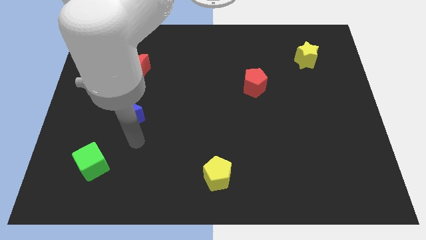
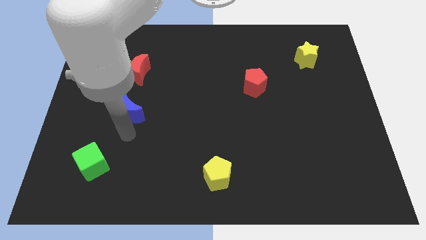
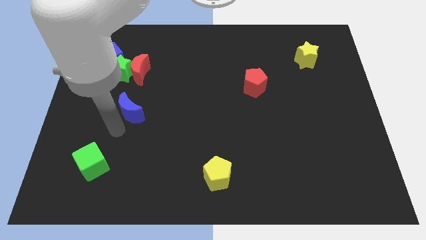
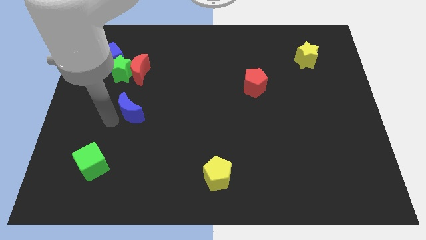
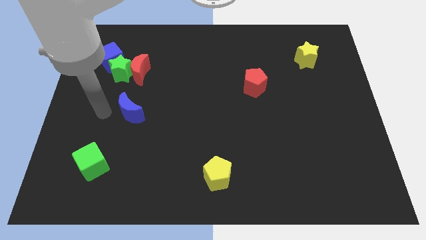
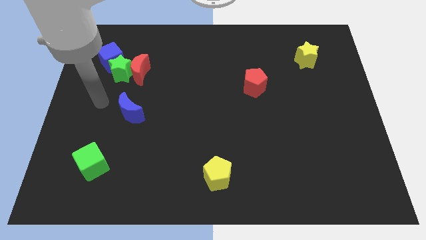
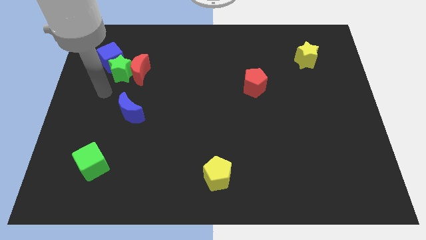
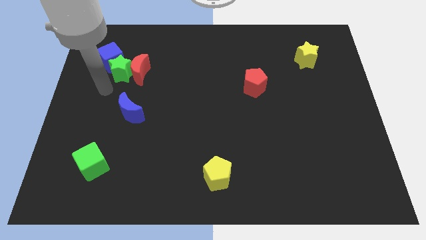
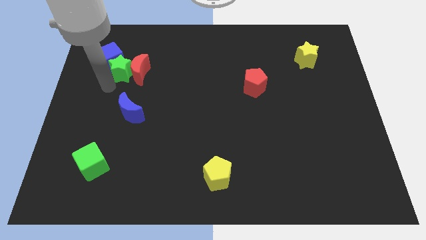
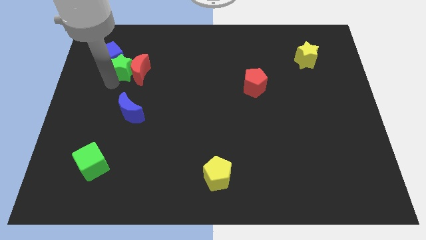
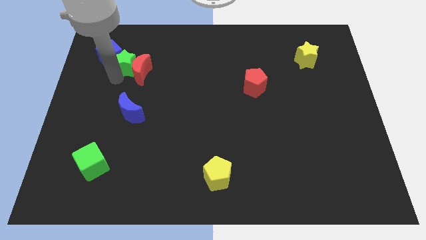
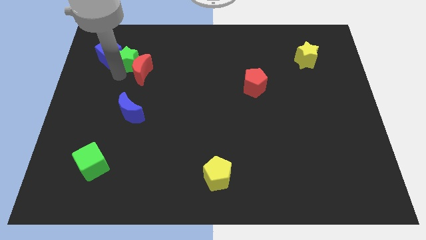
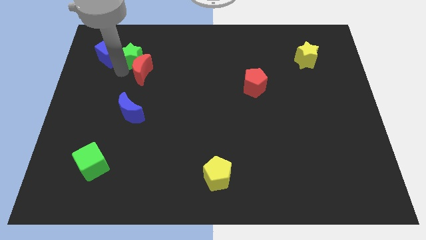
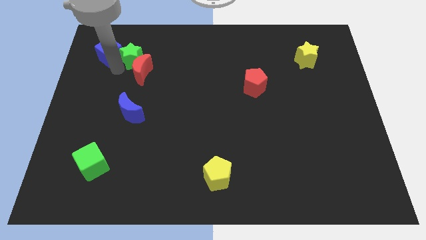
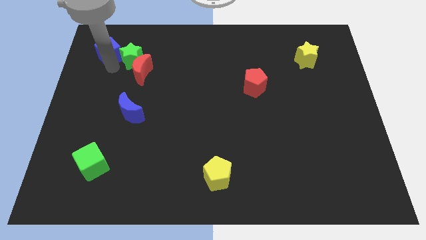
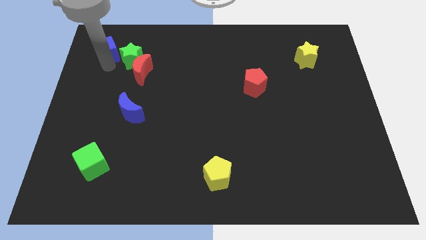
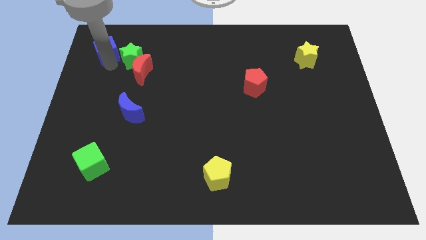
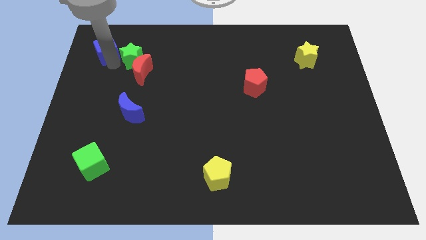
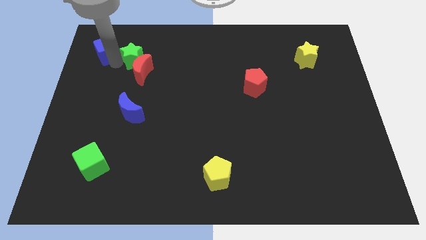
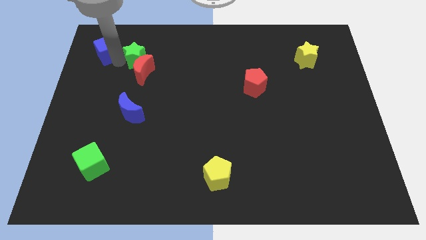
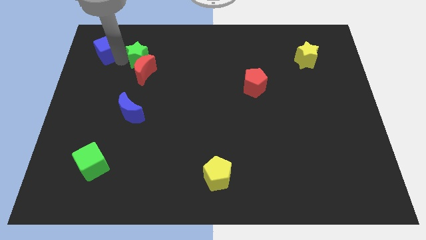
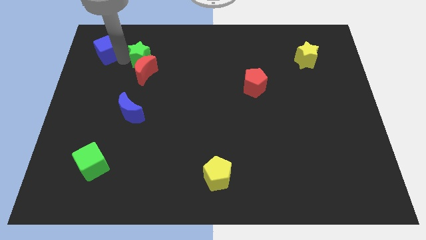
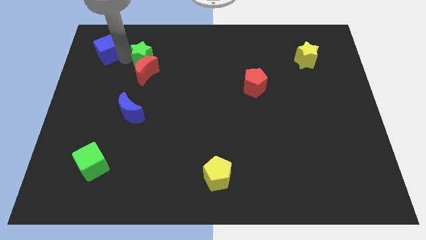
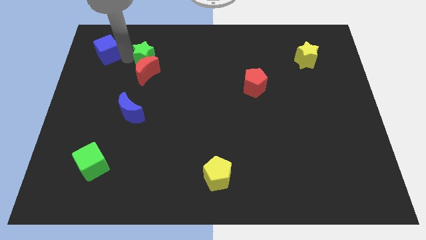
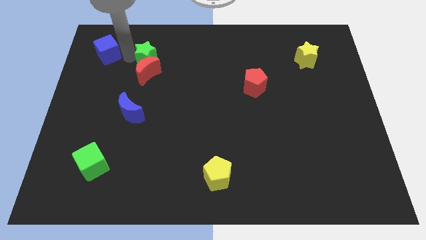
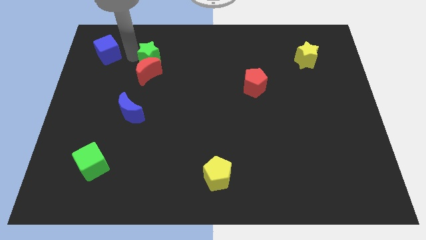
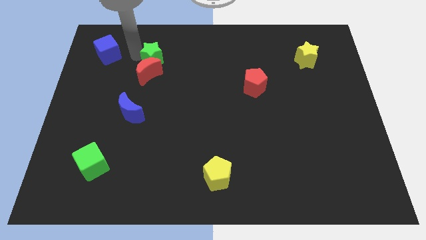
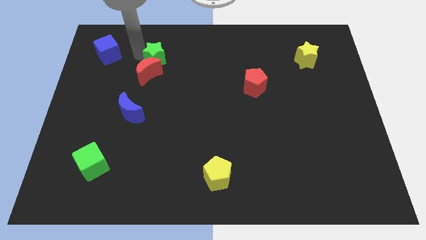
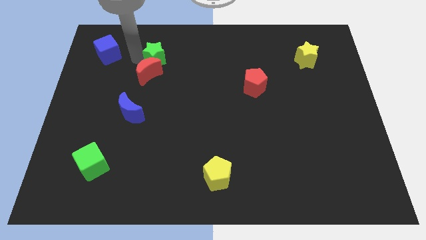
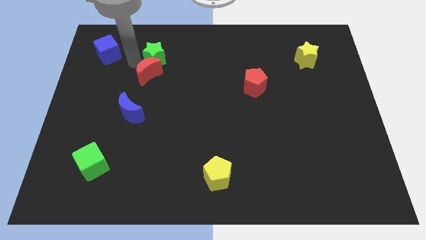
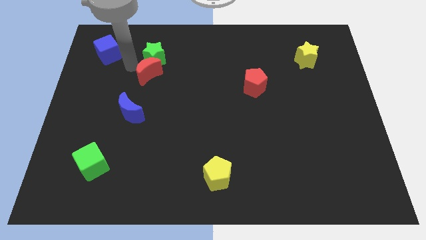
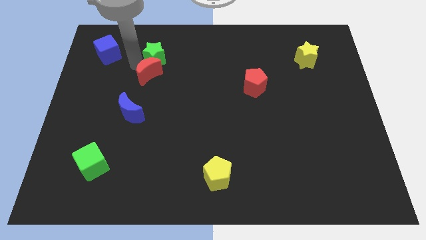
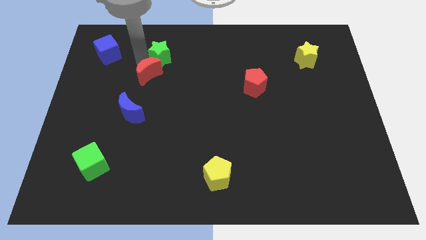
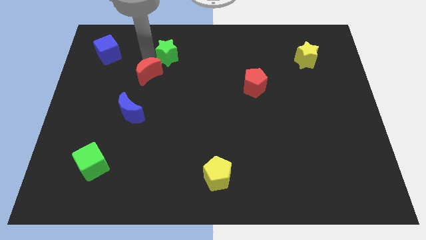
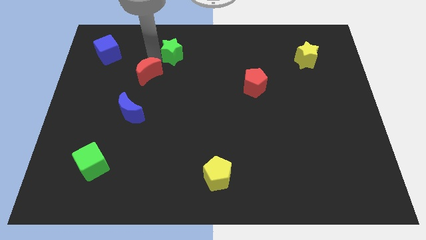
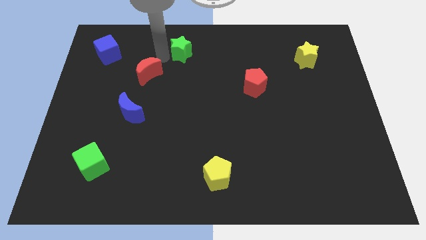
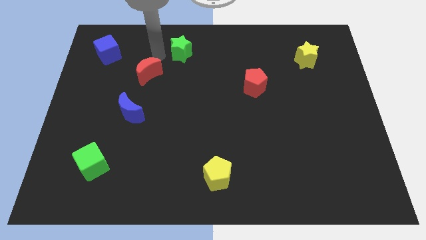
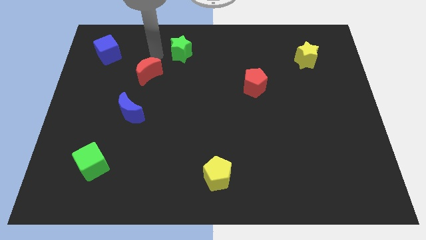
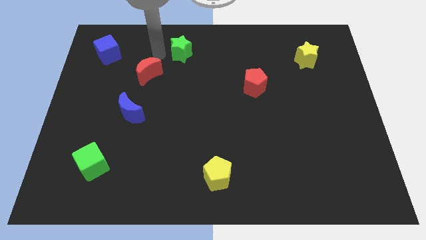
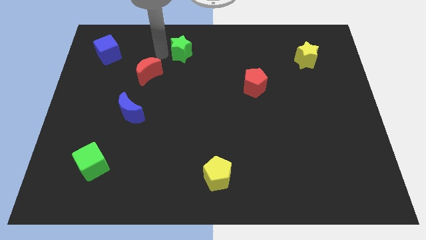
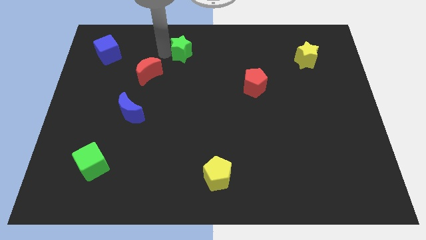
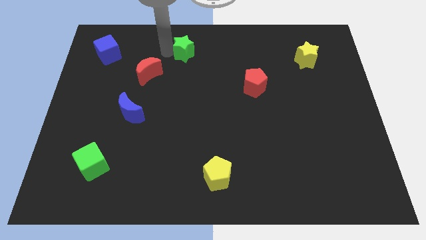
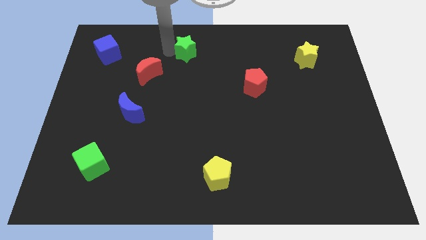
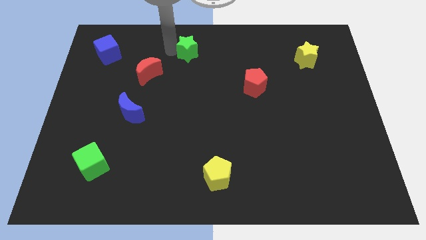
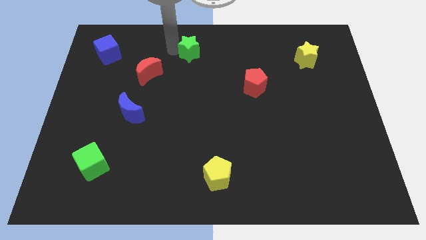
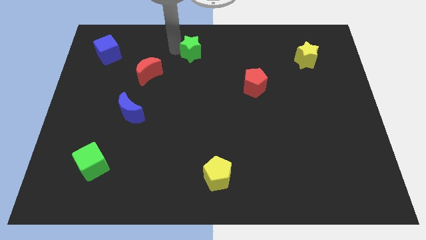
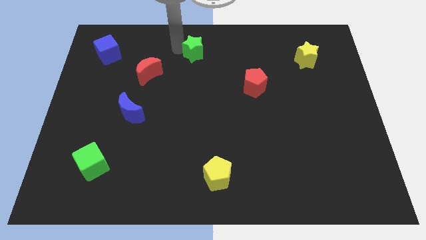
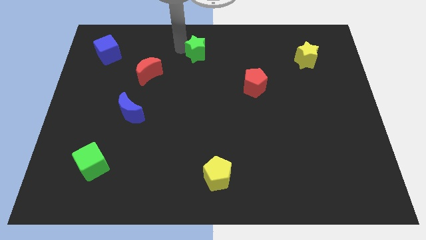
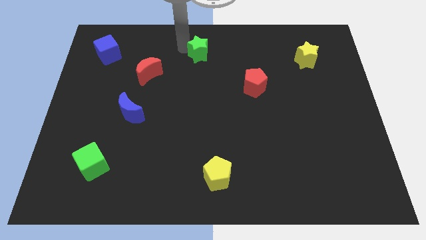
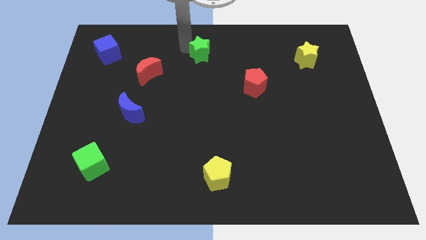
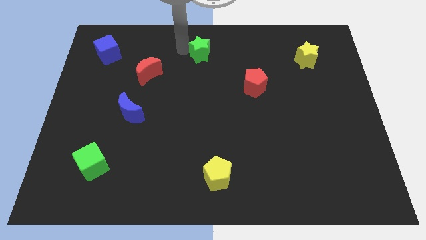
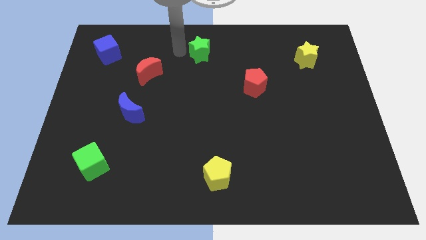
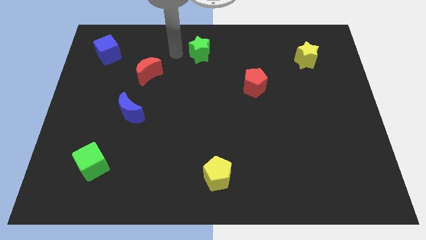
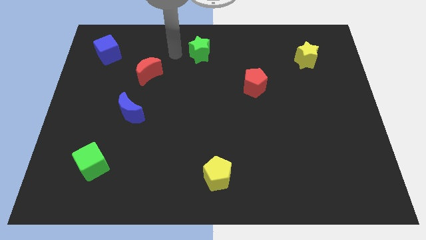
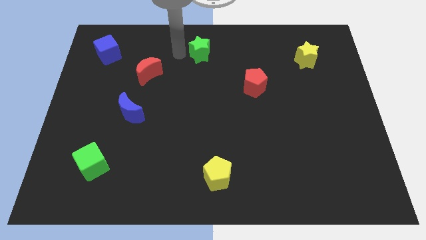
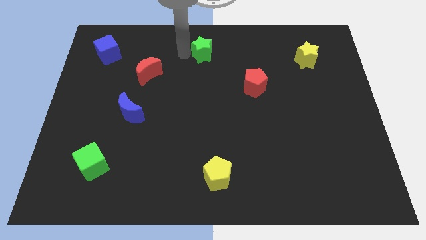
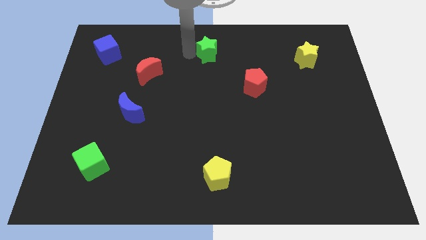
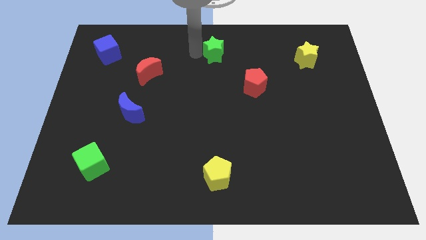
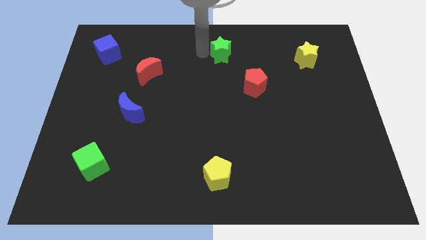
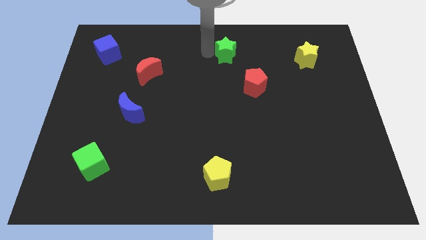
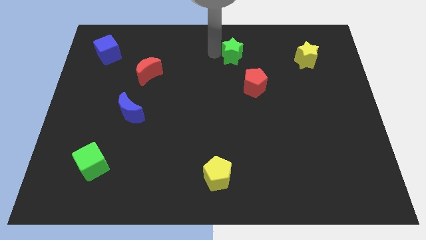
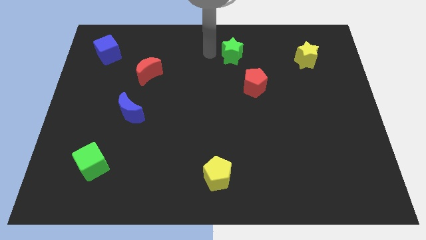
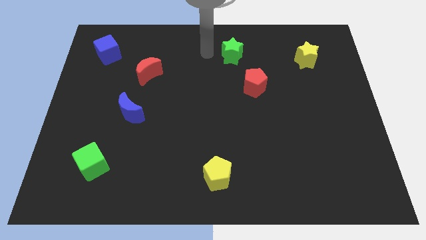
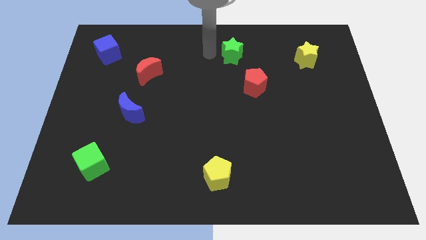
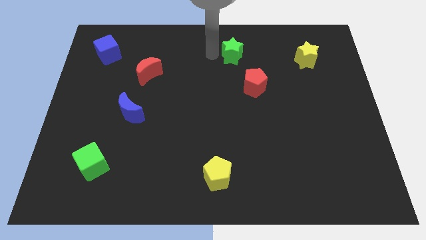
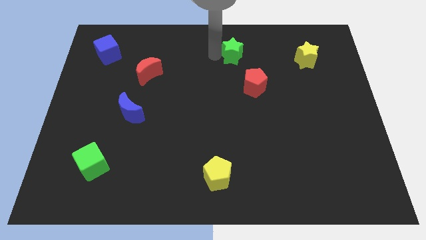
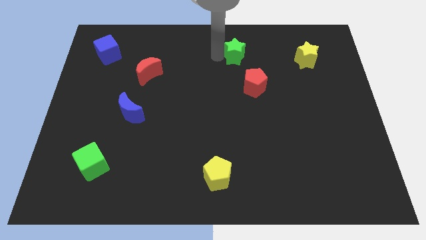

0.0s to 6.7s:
move the green star above the red pentagon
